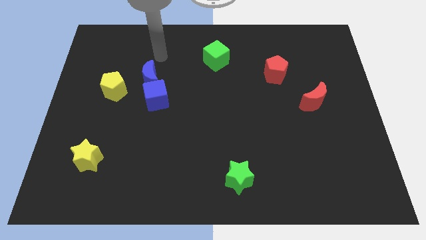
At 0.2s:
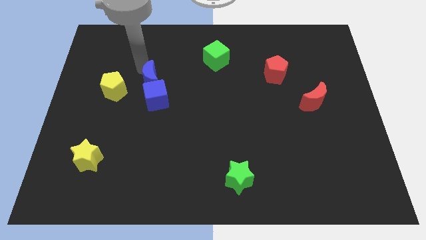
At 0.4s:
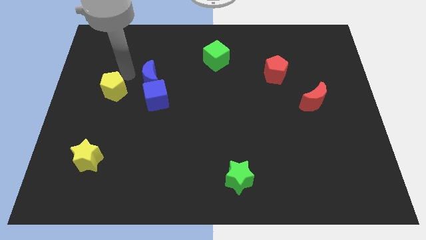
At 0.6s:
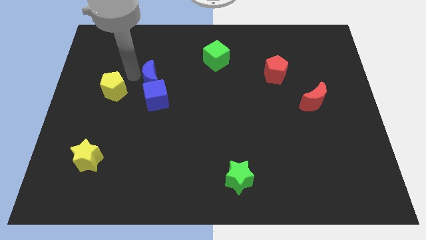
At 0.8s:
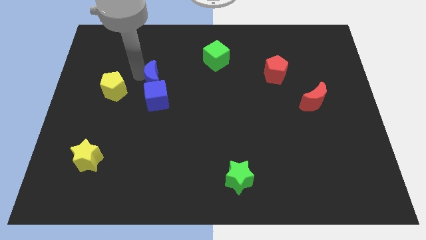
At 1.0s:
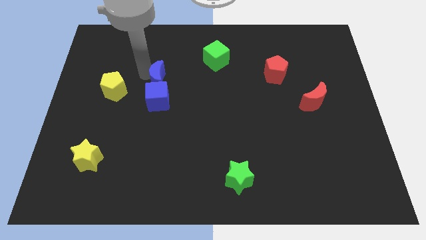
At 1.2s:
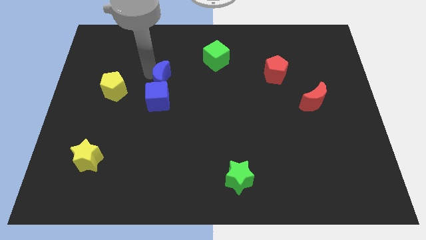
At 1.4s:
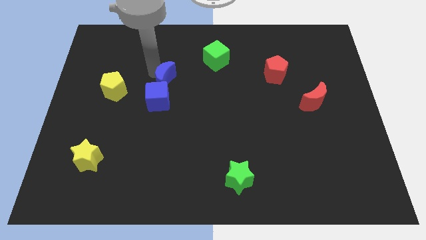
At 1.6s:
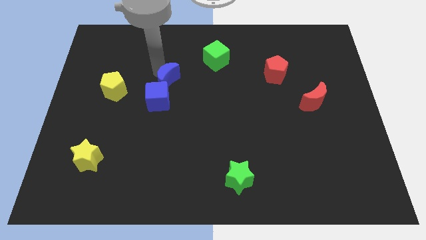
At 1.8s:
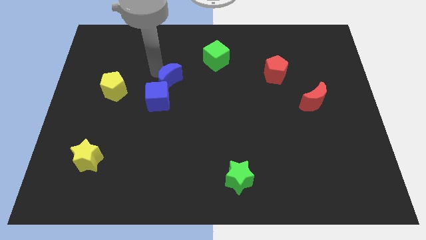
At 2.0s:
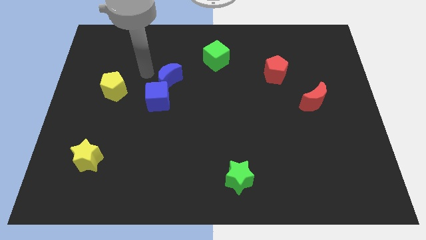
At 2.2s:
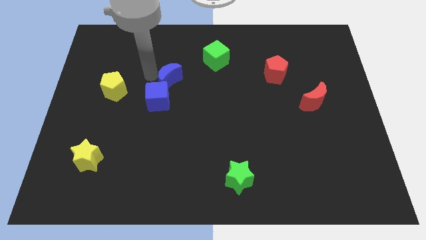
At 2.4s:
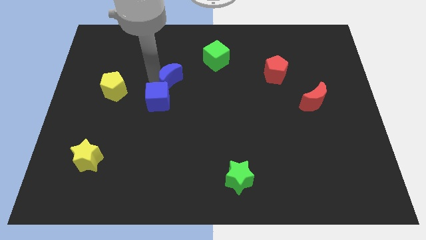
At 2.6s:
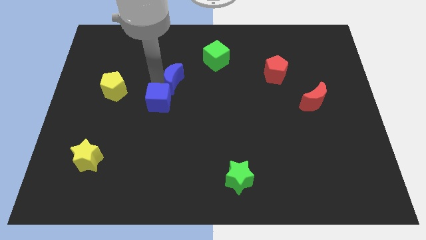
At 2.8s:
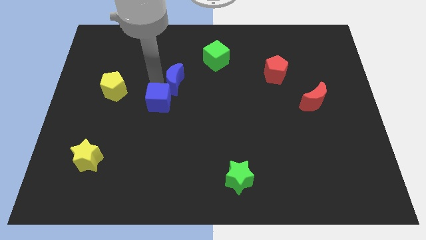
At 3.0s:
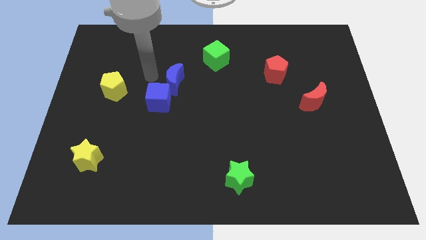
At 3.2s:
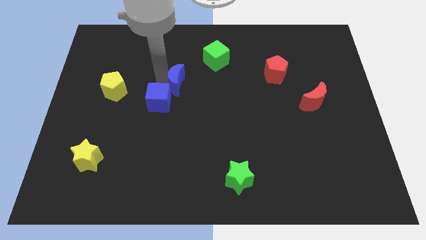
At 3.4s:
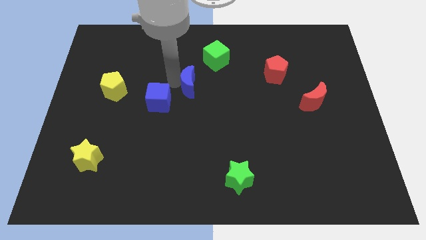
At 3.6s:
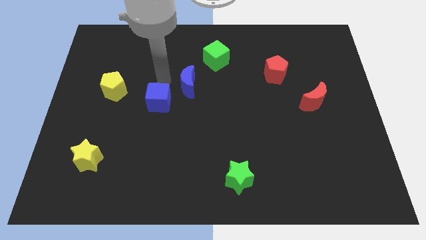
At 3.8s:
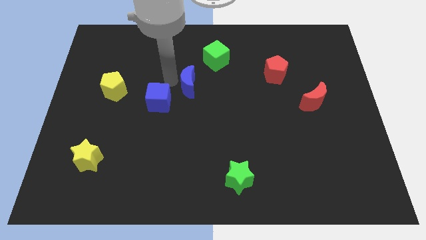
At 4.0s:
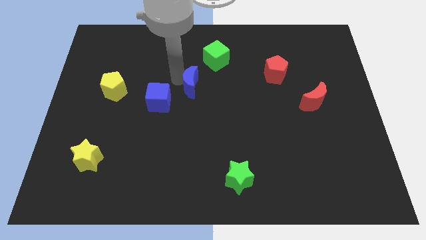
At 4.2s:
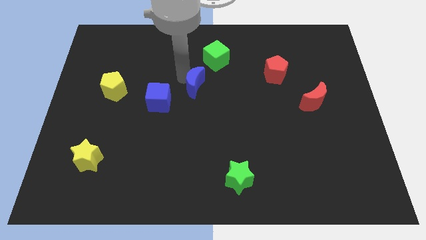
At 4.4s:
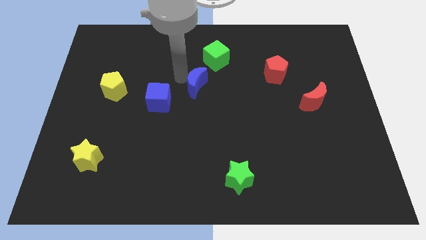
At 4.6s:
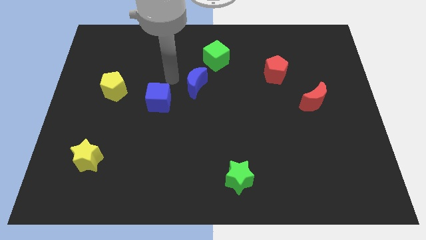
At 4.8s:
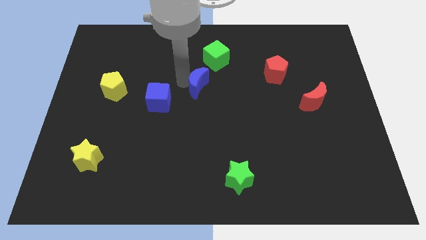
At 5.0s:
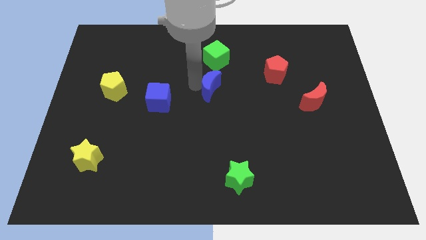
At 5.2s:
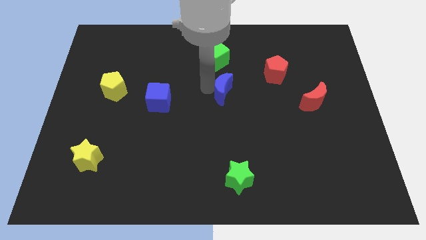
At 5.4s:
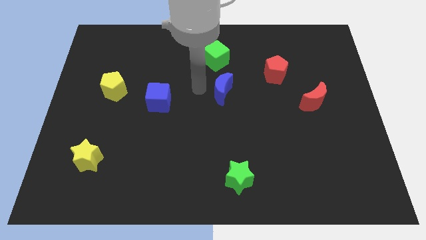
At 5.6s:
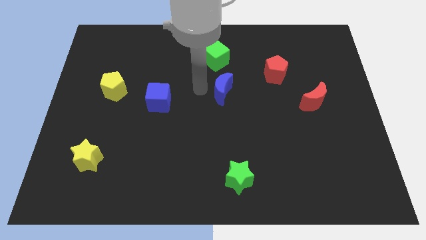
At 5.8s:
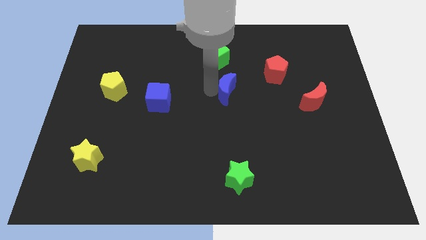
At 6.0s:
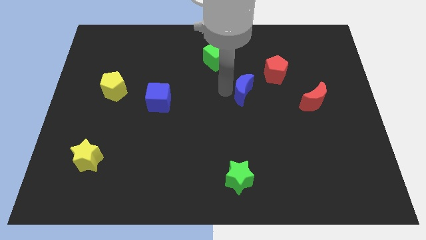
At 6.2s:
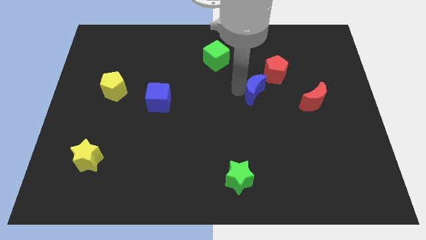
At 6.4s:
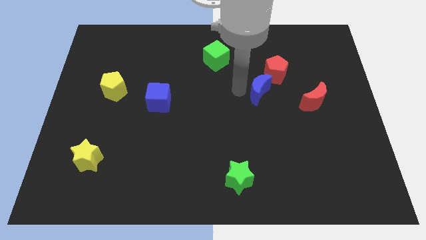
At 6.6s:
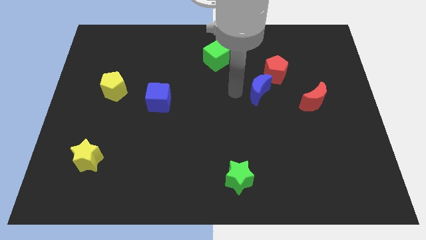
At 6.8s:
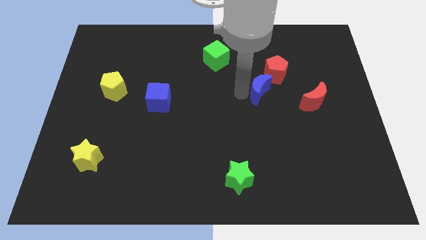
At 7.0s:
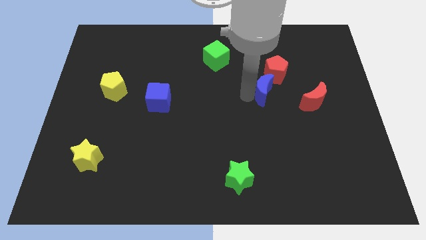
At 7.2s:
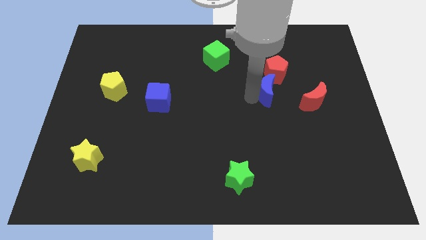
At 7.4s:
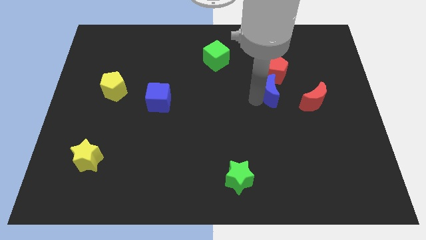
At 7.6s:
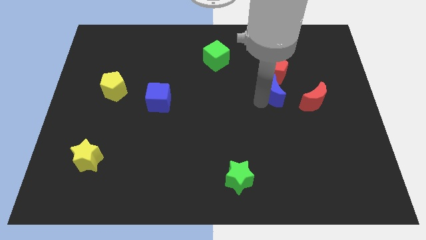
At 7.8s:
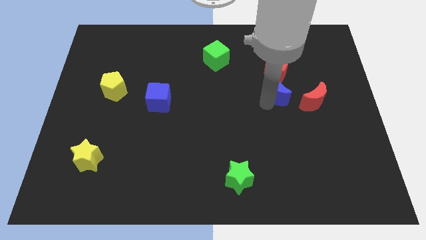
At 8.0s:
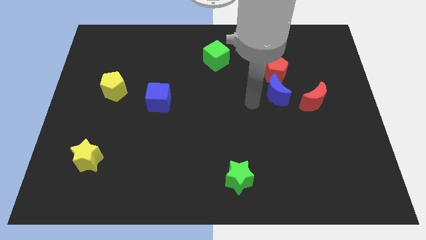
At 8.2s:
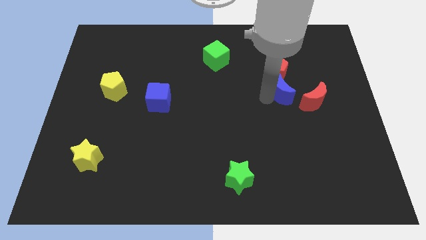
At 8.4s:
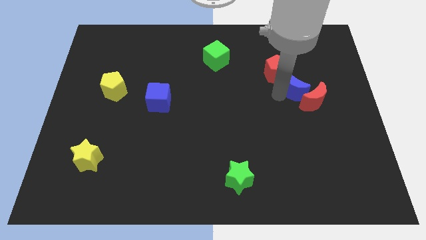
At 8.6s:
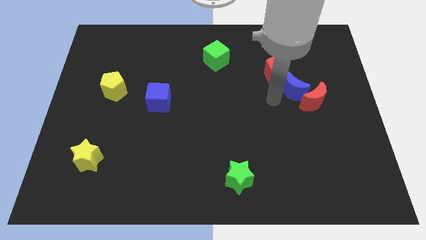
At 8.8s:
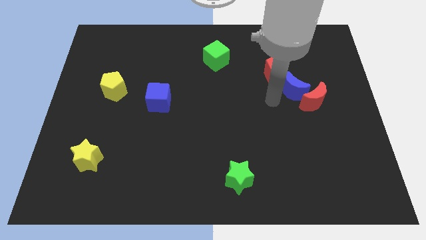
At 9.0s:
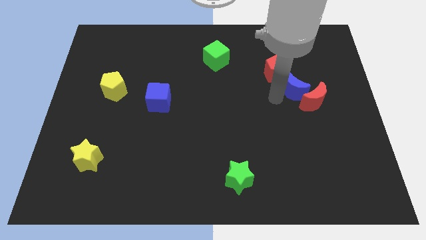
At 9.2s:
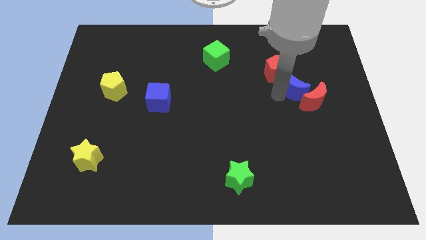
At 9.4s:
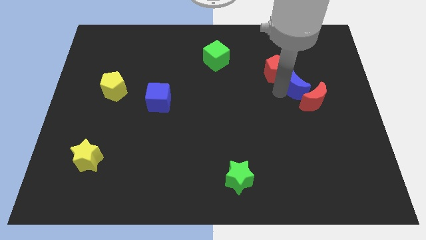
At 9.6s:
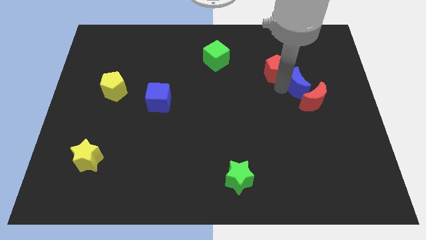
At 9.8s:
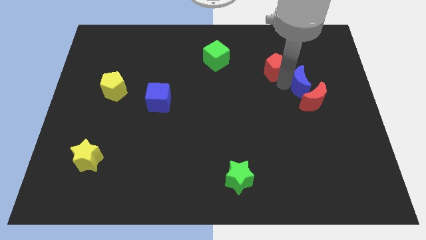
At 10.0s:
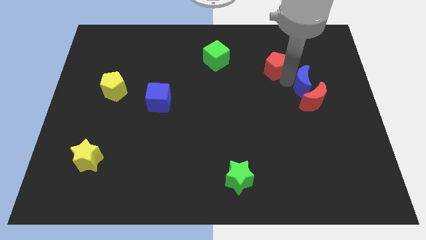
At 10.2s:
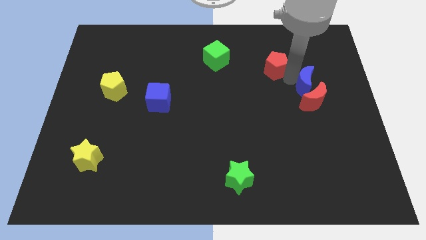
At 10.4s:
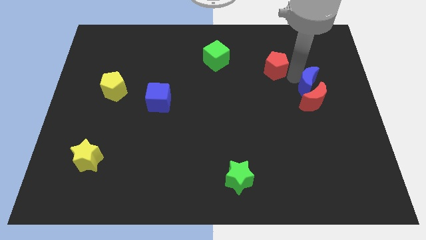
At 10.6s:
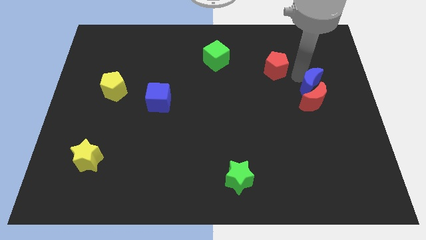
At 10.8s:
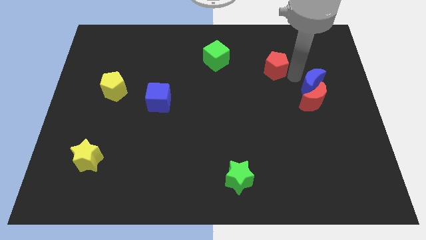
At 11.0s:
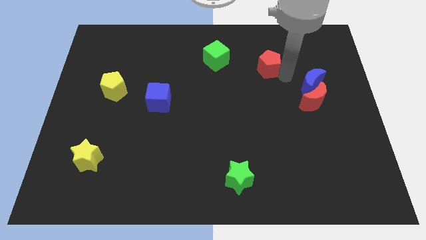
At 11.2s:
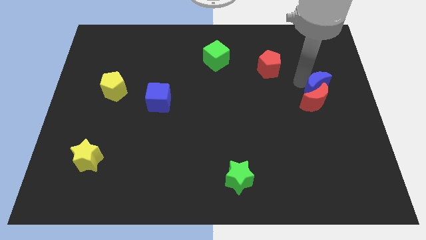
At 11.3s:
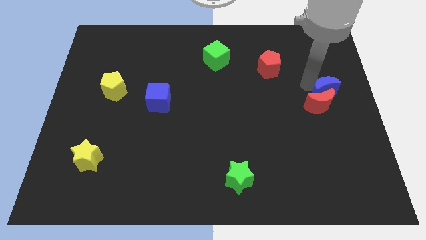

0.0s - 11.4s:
move the blue moon to the center right
